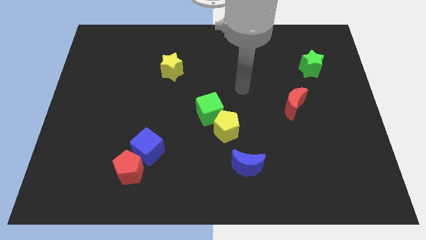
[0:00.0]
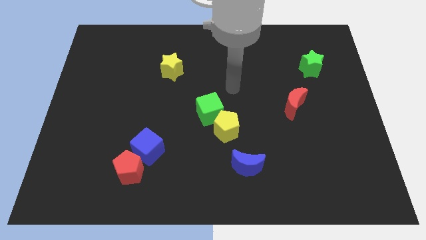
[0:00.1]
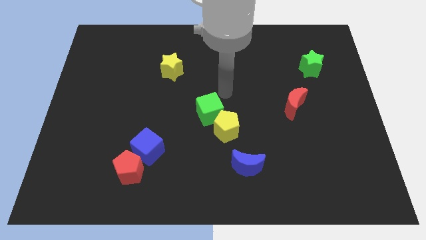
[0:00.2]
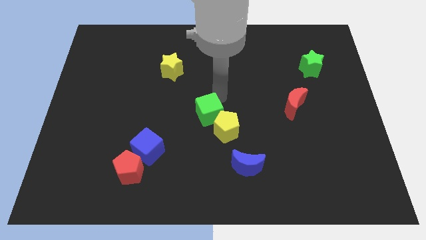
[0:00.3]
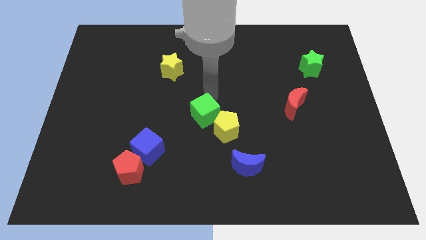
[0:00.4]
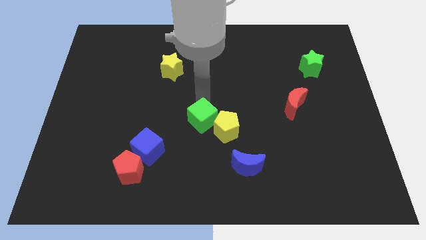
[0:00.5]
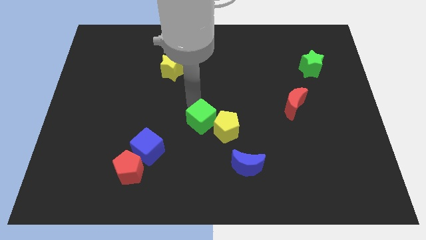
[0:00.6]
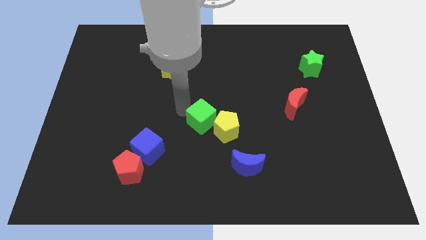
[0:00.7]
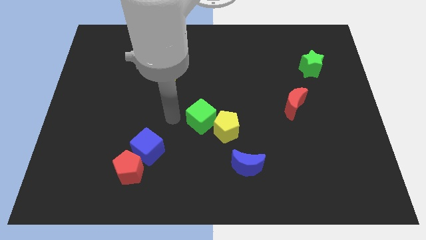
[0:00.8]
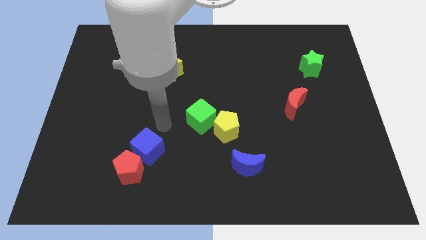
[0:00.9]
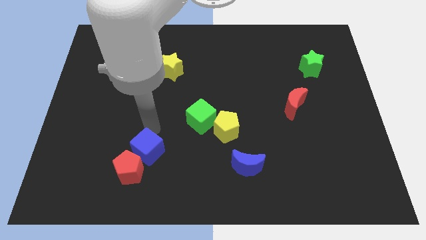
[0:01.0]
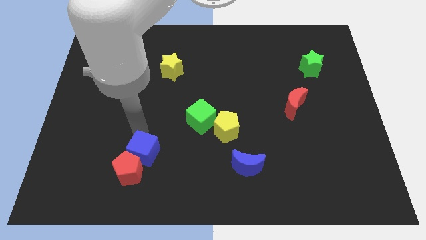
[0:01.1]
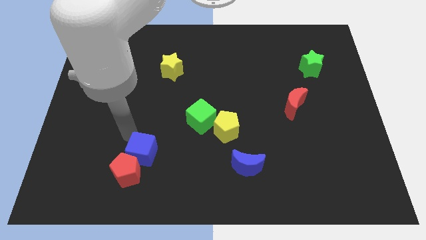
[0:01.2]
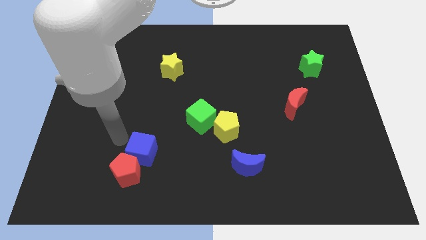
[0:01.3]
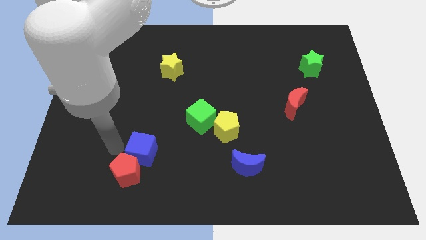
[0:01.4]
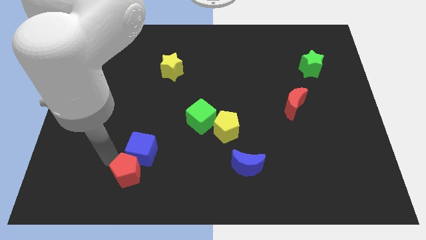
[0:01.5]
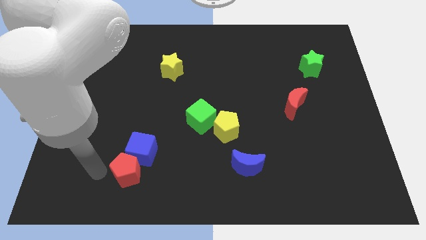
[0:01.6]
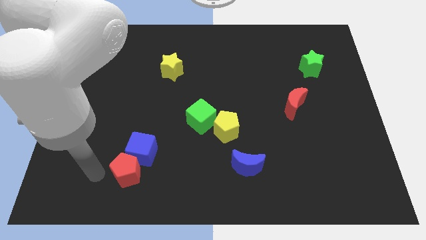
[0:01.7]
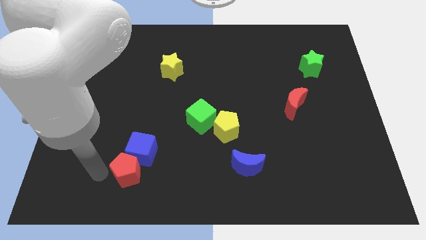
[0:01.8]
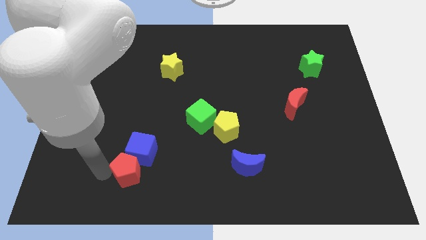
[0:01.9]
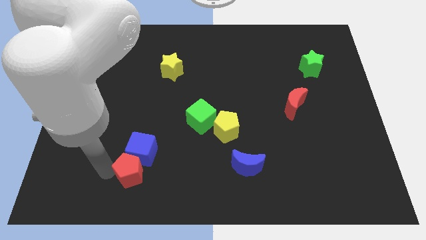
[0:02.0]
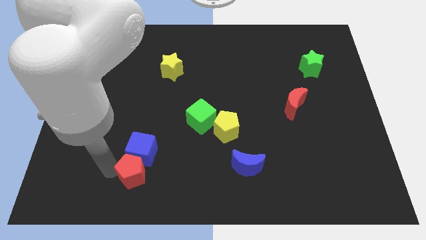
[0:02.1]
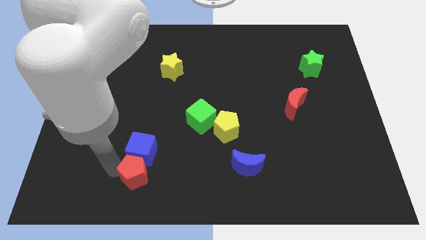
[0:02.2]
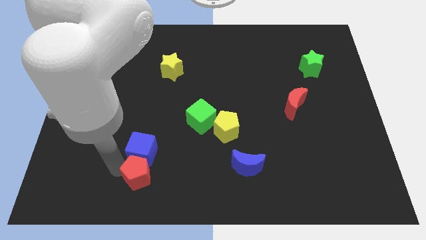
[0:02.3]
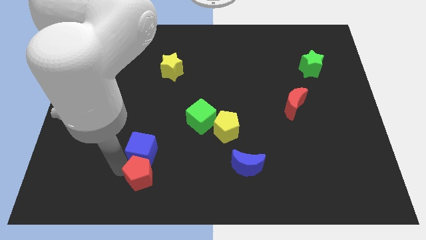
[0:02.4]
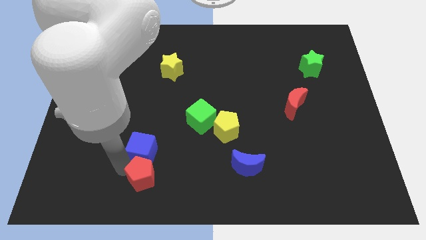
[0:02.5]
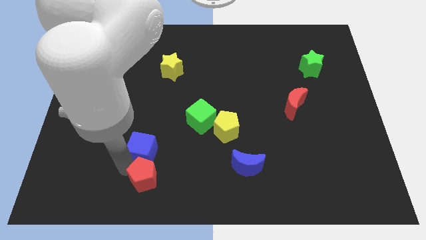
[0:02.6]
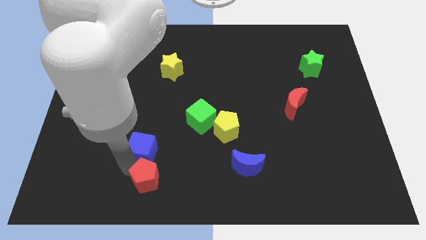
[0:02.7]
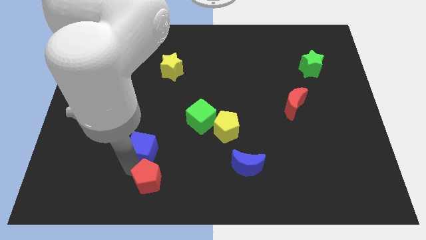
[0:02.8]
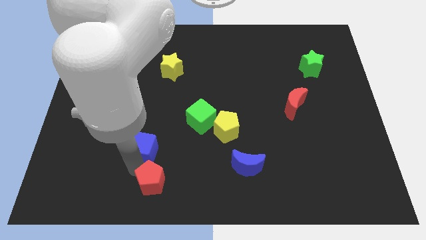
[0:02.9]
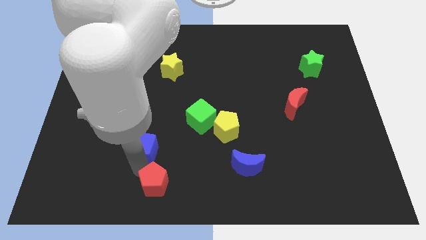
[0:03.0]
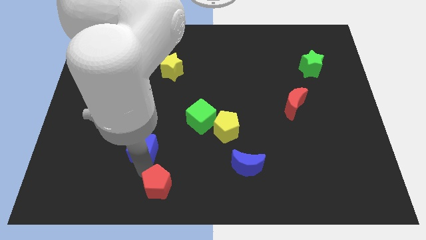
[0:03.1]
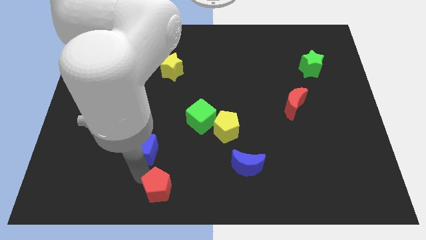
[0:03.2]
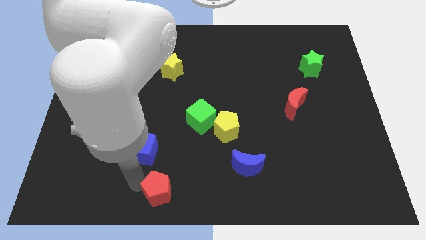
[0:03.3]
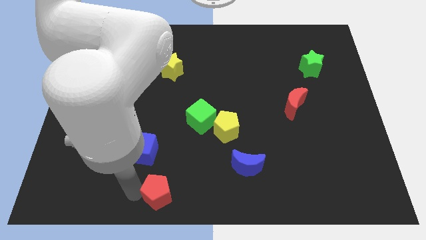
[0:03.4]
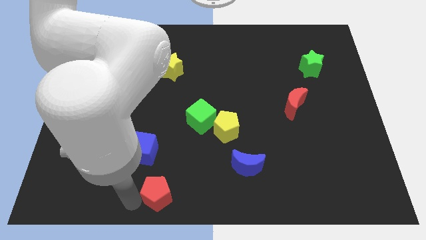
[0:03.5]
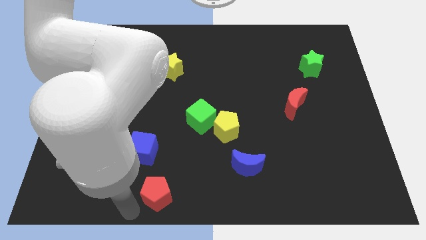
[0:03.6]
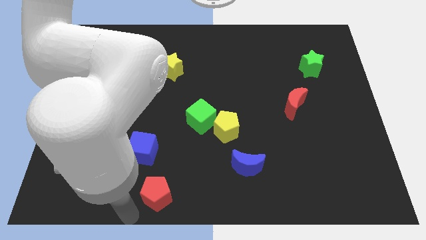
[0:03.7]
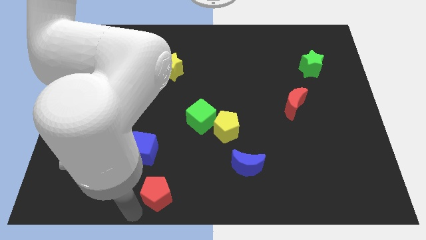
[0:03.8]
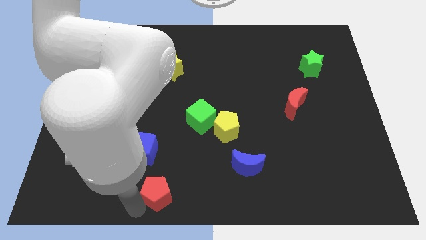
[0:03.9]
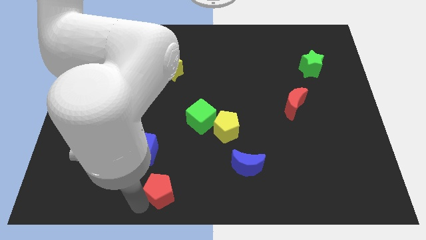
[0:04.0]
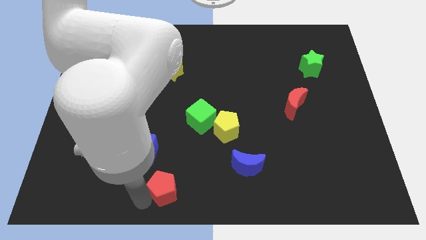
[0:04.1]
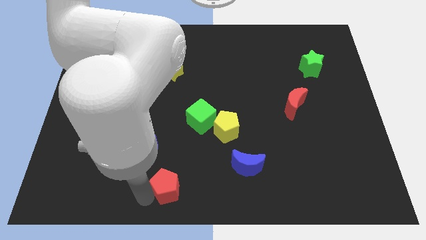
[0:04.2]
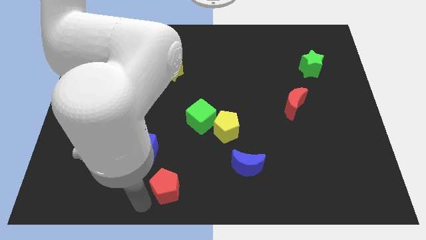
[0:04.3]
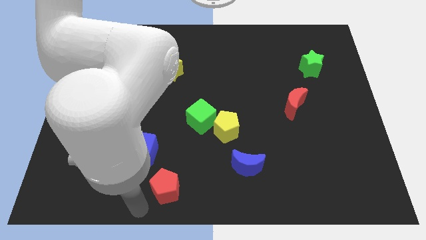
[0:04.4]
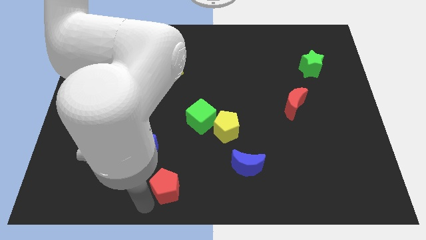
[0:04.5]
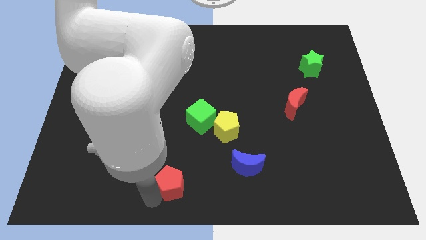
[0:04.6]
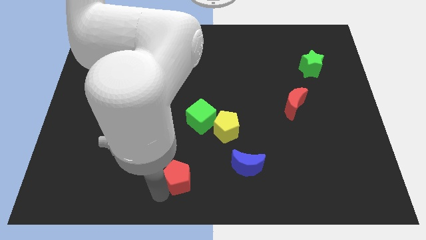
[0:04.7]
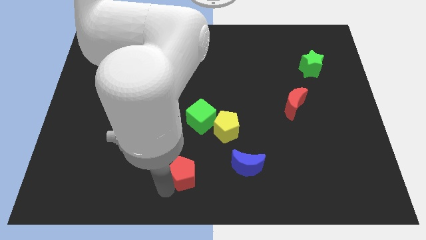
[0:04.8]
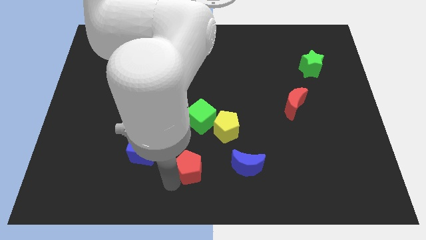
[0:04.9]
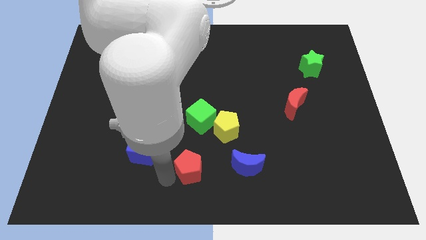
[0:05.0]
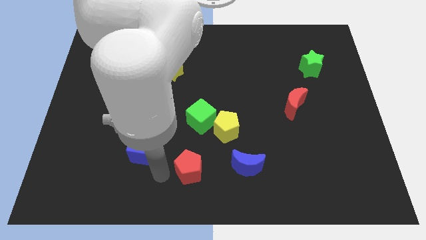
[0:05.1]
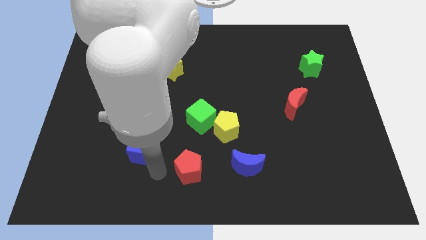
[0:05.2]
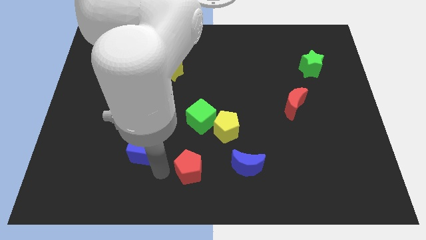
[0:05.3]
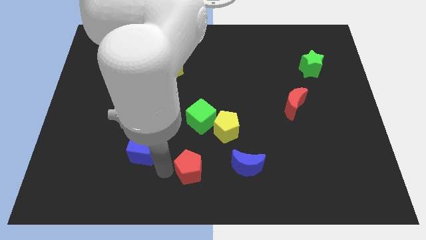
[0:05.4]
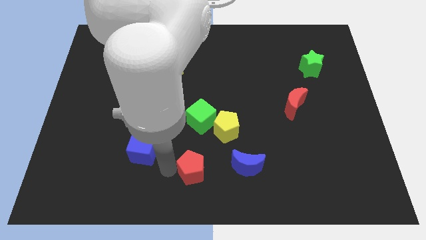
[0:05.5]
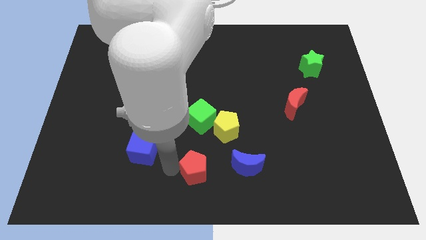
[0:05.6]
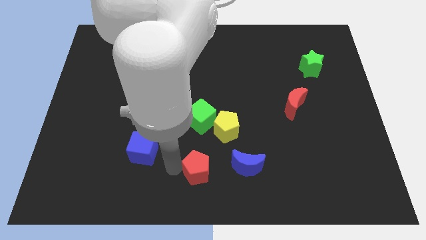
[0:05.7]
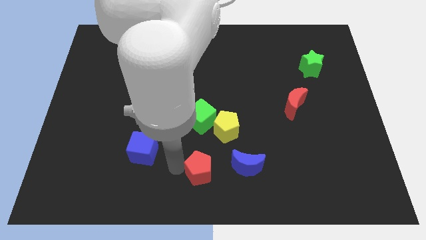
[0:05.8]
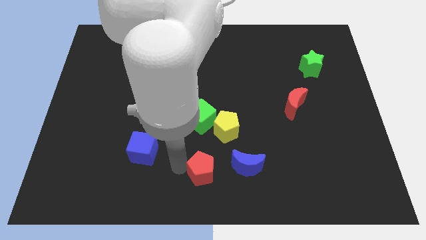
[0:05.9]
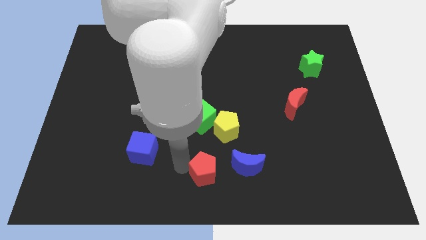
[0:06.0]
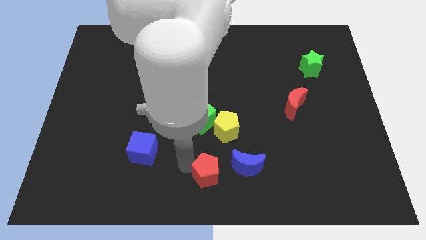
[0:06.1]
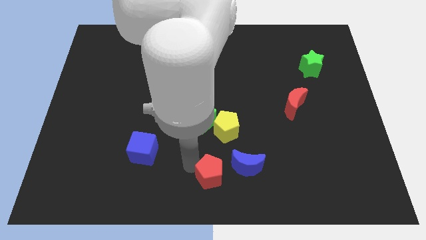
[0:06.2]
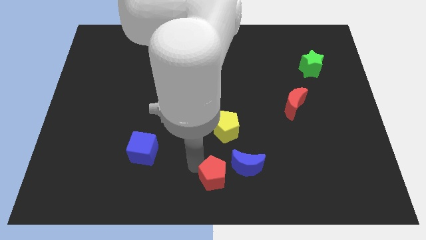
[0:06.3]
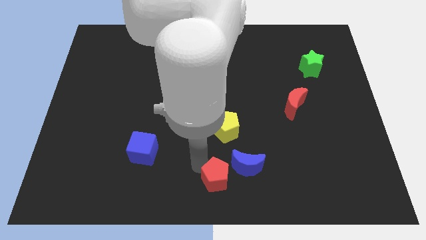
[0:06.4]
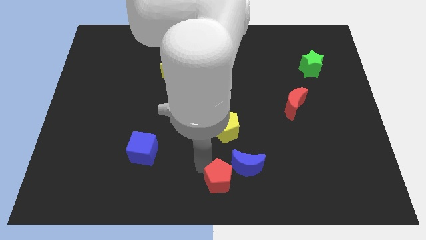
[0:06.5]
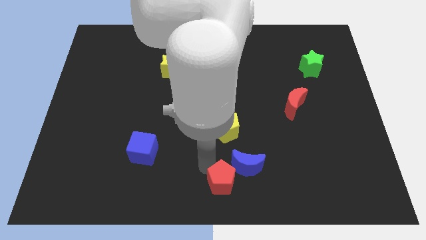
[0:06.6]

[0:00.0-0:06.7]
move the red pentagon towards the blue moon
